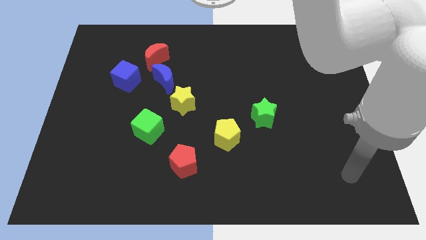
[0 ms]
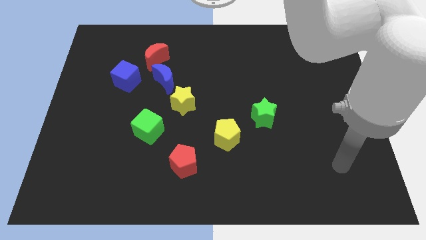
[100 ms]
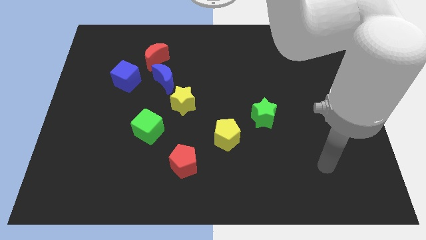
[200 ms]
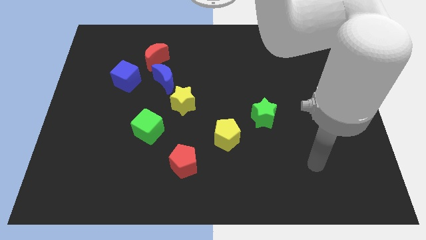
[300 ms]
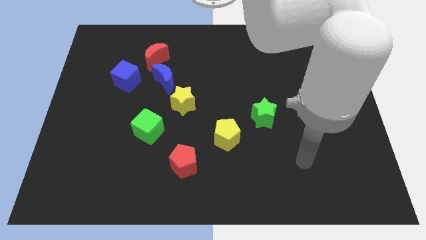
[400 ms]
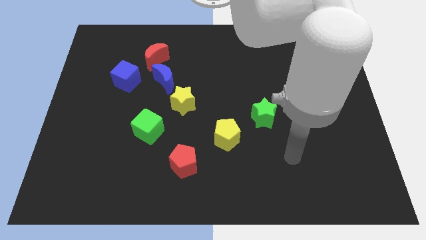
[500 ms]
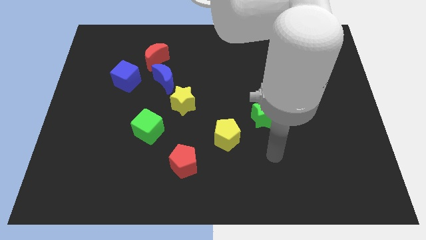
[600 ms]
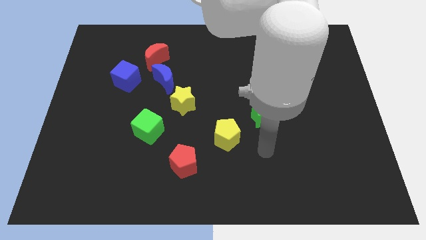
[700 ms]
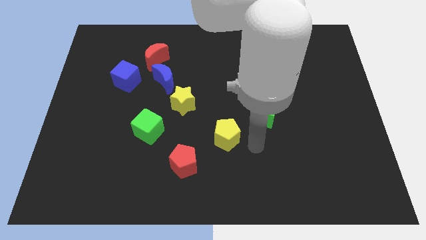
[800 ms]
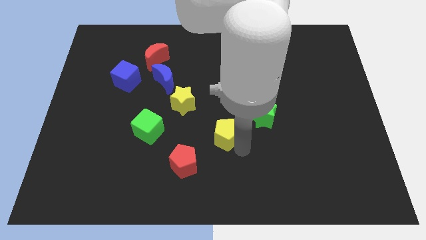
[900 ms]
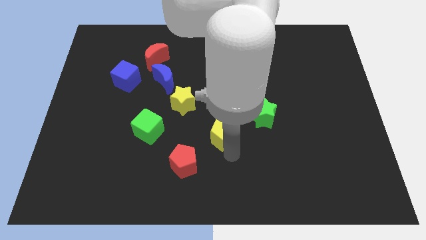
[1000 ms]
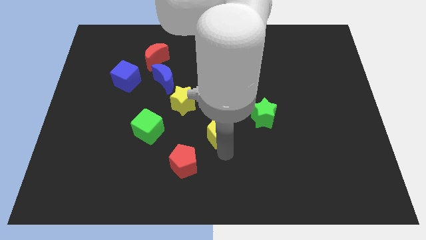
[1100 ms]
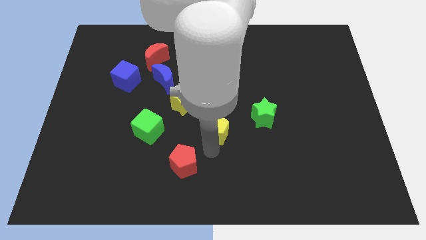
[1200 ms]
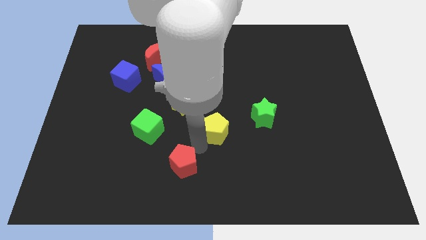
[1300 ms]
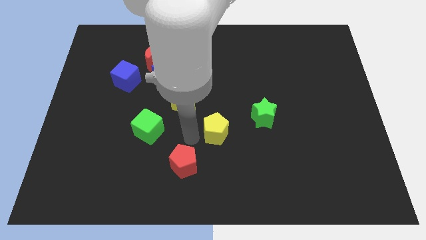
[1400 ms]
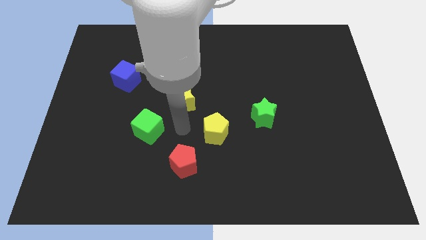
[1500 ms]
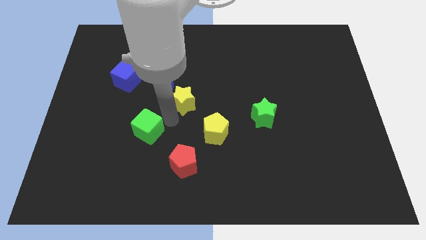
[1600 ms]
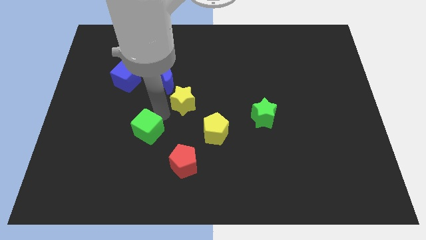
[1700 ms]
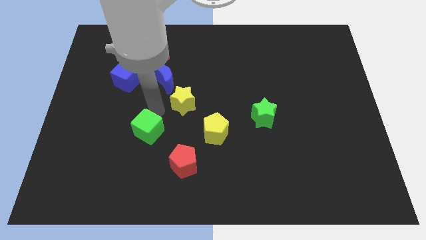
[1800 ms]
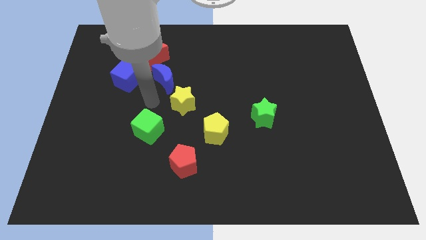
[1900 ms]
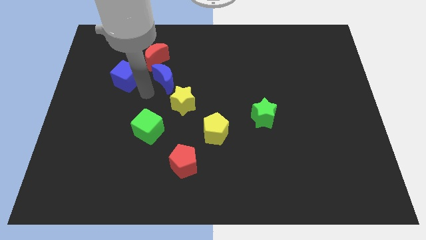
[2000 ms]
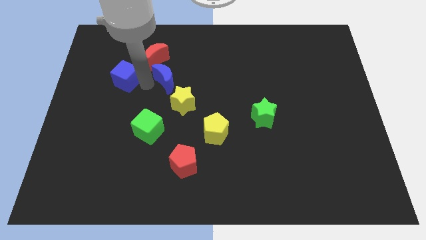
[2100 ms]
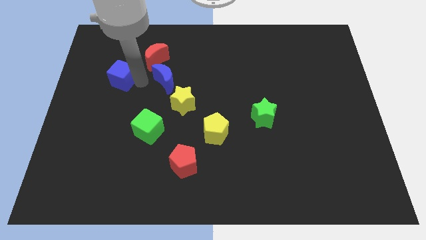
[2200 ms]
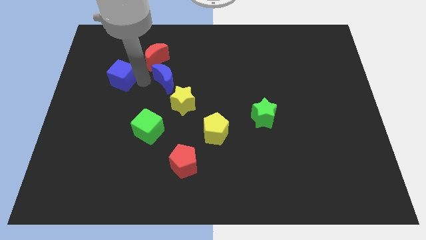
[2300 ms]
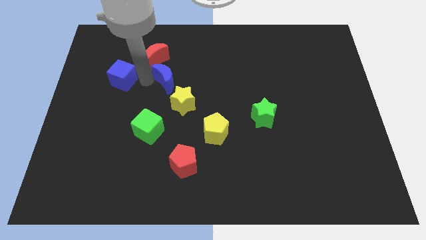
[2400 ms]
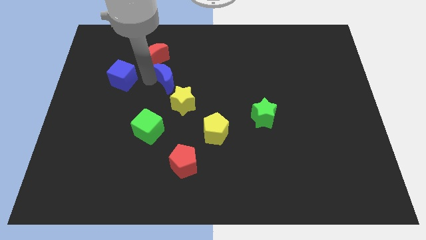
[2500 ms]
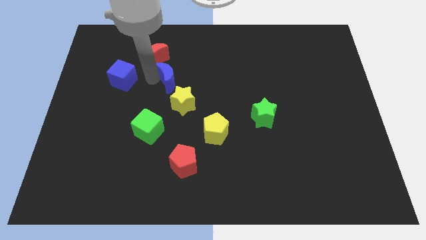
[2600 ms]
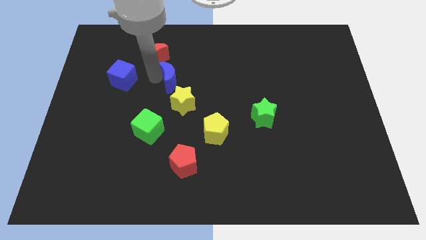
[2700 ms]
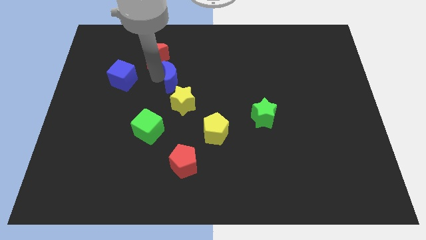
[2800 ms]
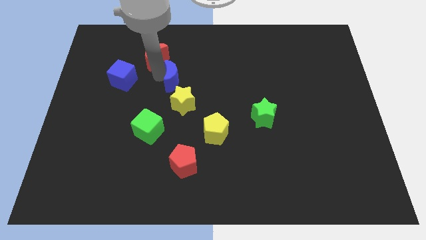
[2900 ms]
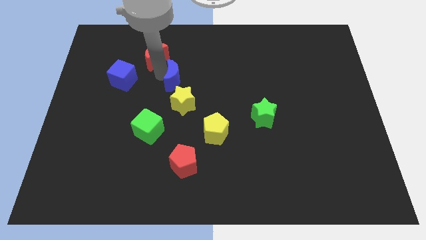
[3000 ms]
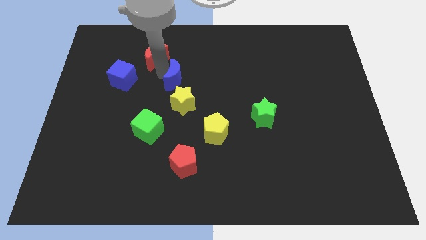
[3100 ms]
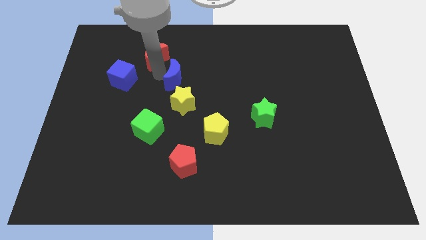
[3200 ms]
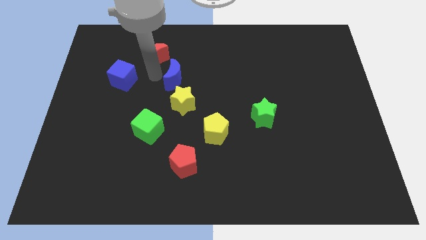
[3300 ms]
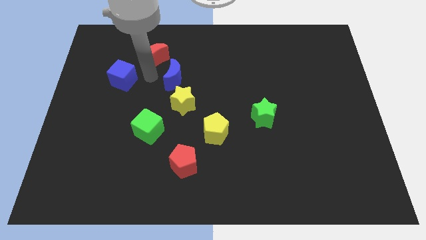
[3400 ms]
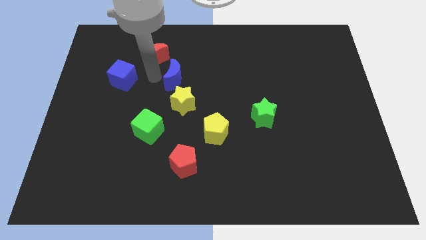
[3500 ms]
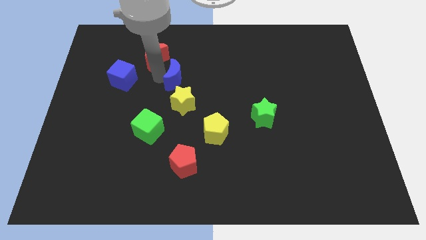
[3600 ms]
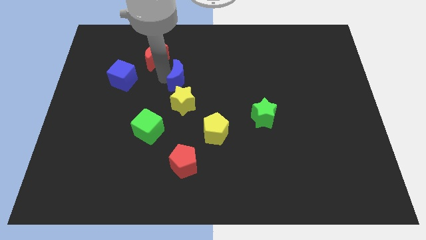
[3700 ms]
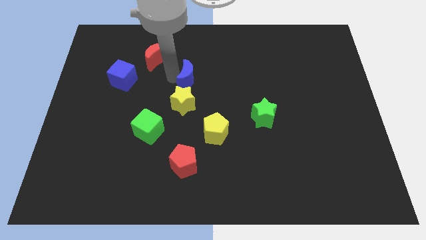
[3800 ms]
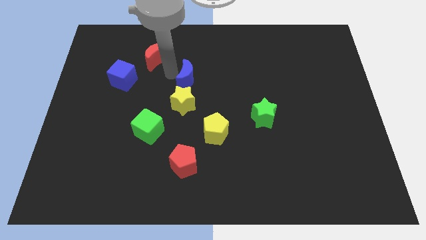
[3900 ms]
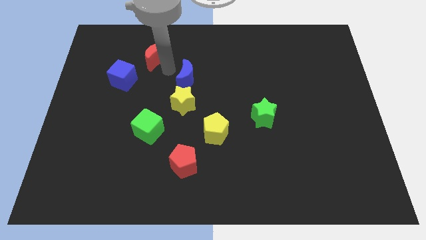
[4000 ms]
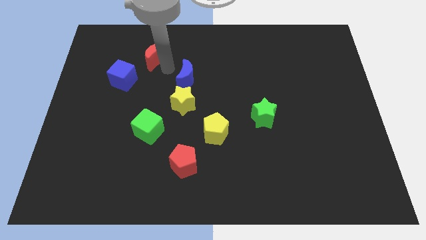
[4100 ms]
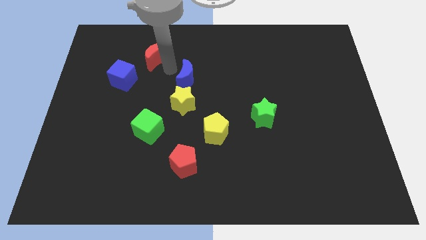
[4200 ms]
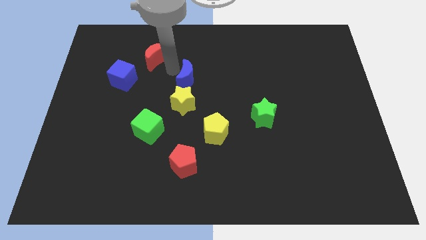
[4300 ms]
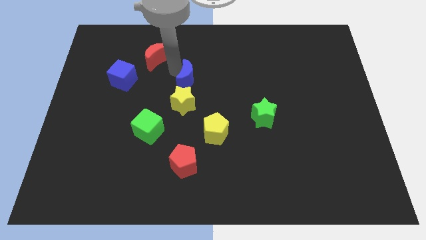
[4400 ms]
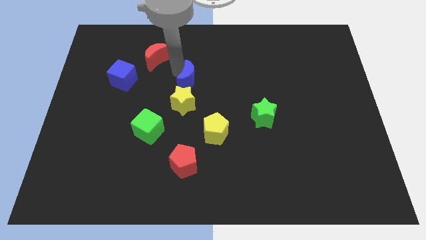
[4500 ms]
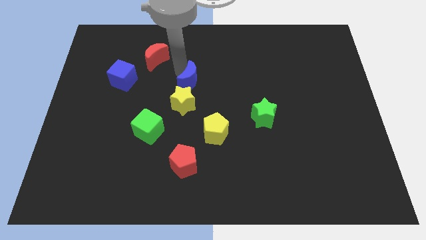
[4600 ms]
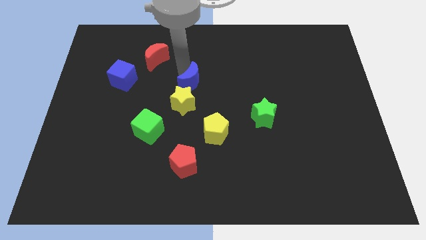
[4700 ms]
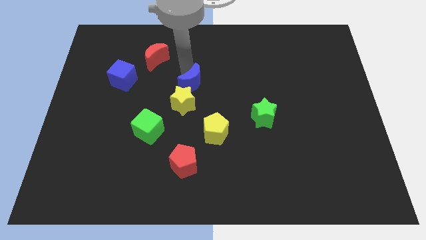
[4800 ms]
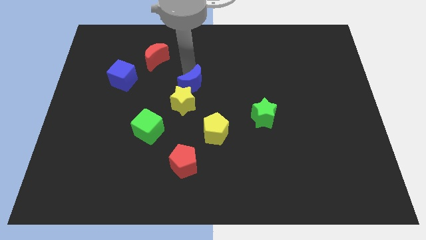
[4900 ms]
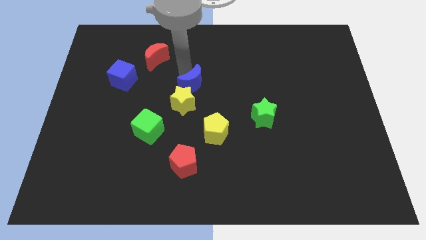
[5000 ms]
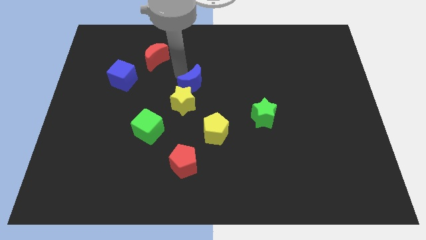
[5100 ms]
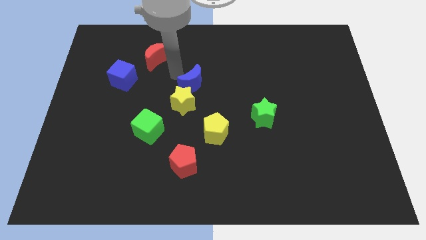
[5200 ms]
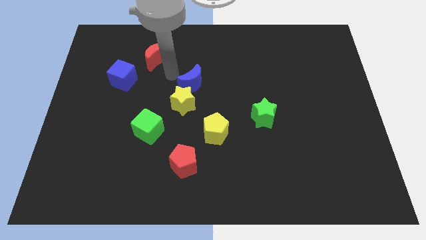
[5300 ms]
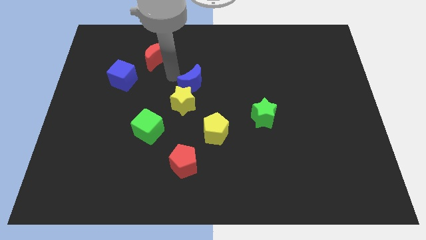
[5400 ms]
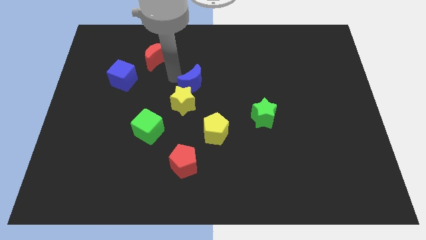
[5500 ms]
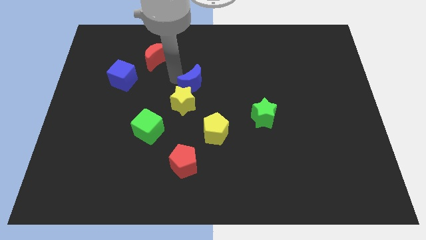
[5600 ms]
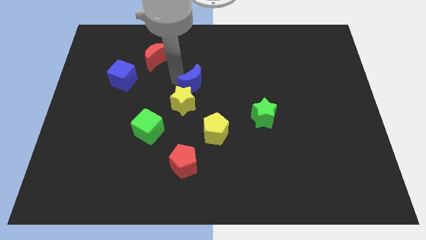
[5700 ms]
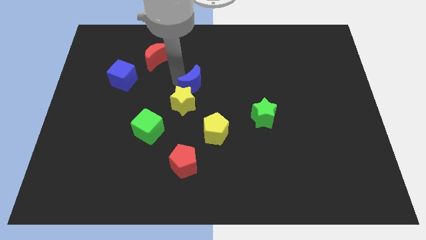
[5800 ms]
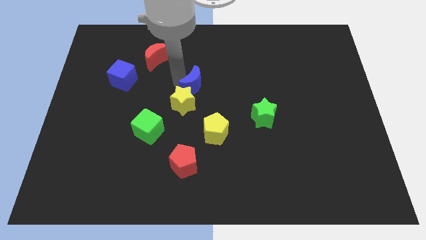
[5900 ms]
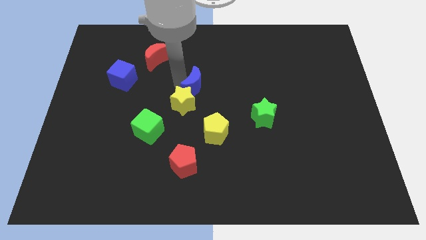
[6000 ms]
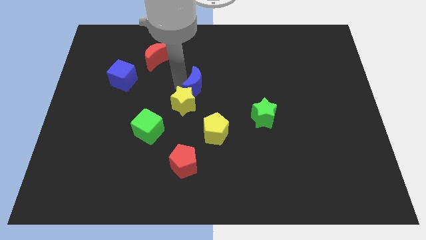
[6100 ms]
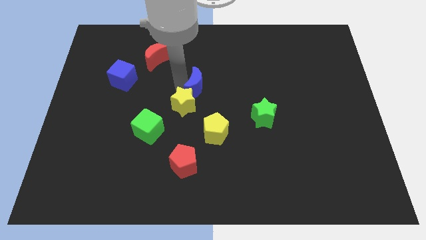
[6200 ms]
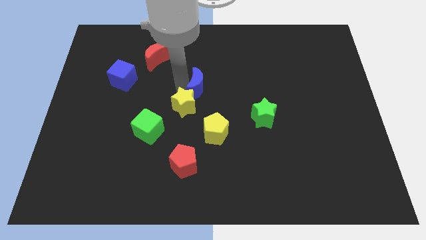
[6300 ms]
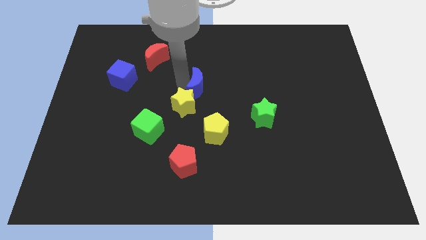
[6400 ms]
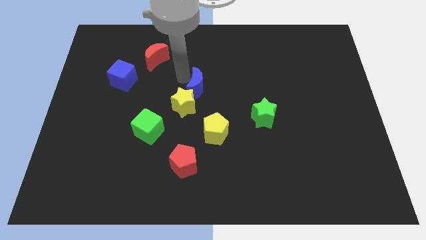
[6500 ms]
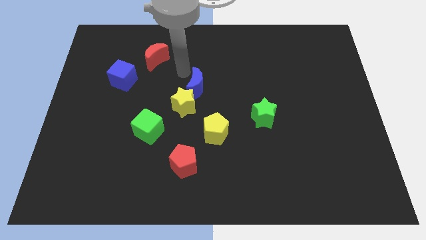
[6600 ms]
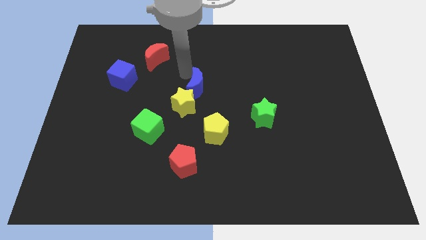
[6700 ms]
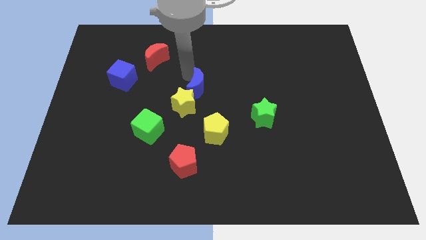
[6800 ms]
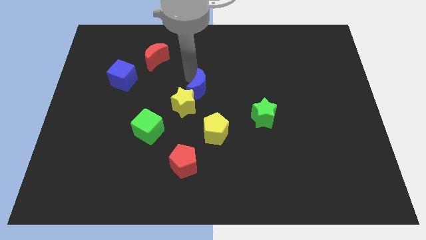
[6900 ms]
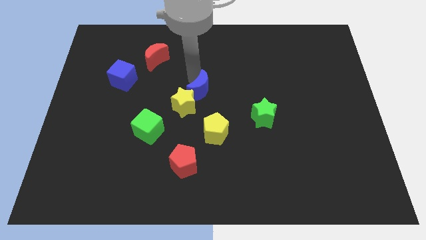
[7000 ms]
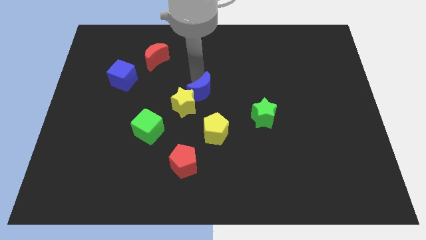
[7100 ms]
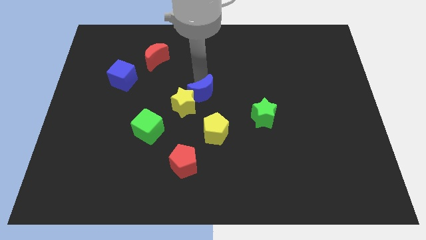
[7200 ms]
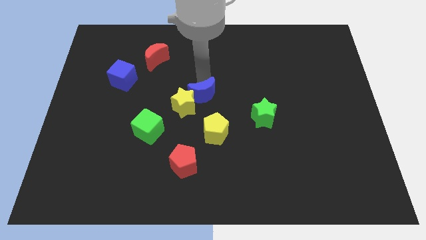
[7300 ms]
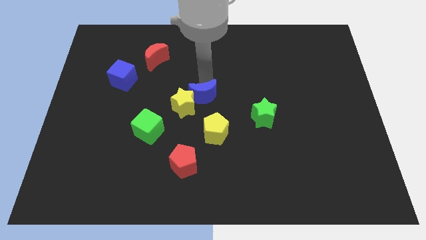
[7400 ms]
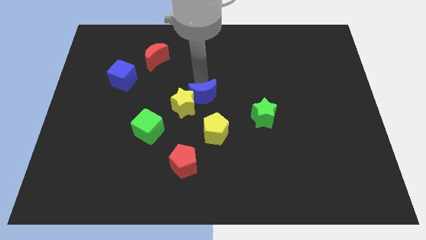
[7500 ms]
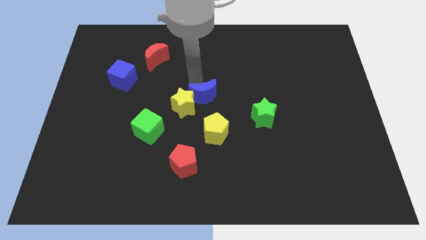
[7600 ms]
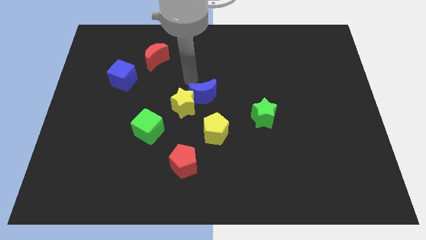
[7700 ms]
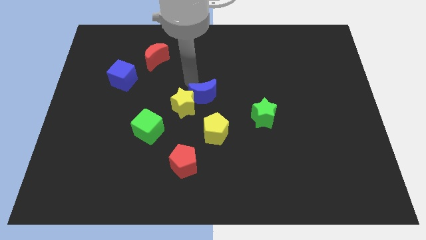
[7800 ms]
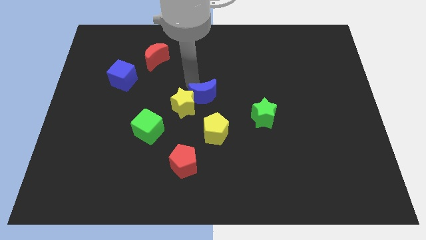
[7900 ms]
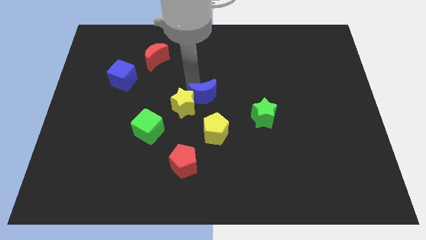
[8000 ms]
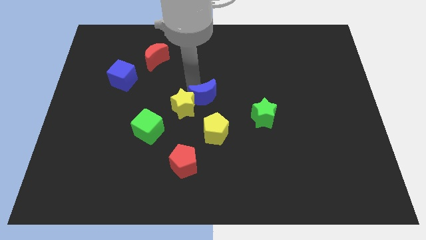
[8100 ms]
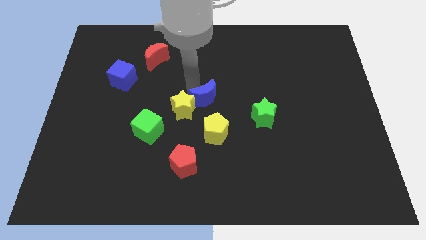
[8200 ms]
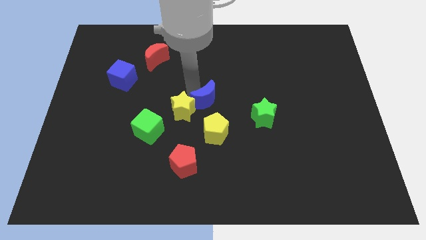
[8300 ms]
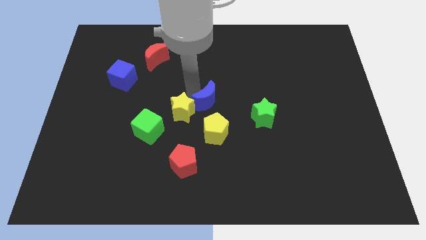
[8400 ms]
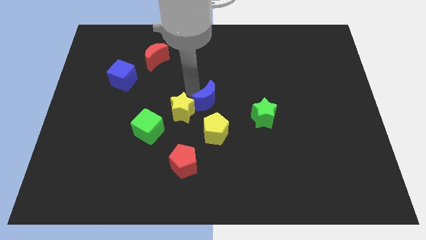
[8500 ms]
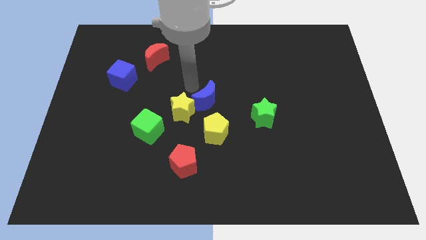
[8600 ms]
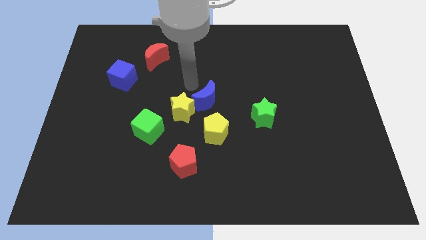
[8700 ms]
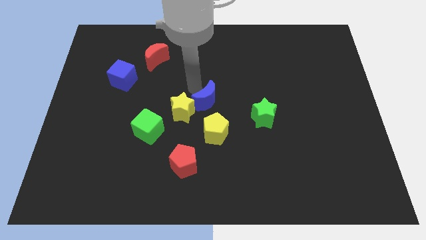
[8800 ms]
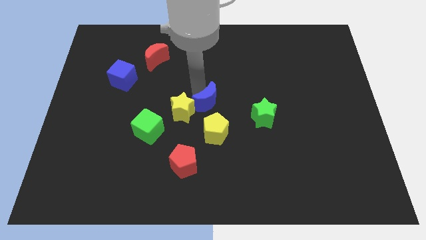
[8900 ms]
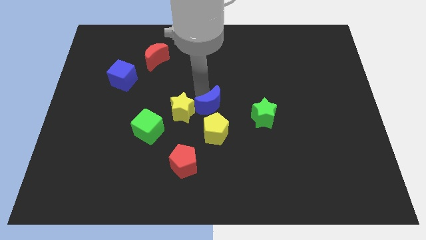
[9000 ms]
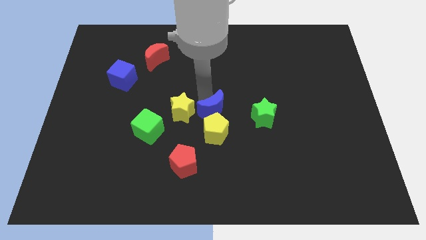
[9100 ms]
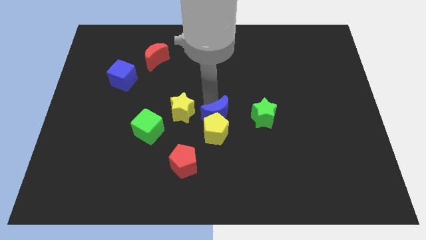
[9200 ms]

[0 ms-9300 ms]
push the blue moon close to the yellow pentagon
